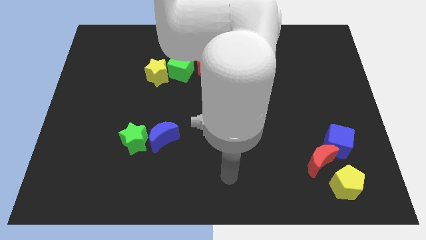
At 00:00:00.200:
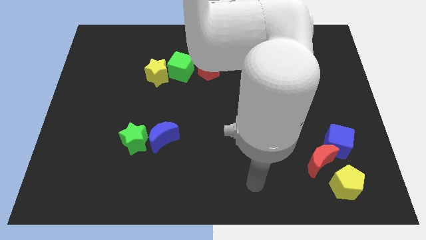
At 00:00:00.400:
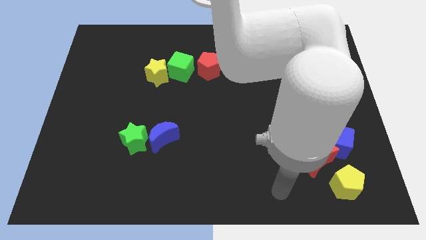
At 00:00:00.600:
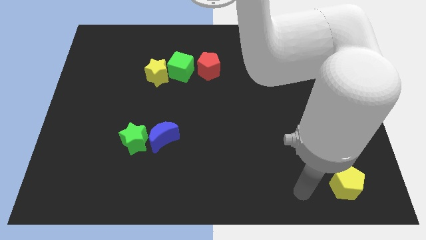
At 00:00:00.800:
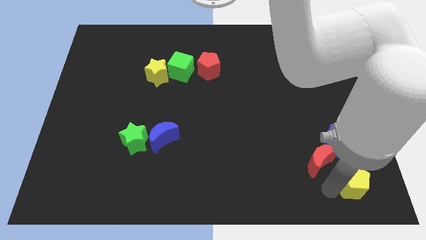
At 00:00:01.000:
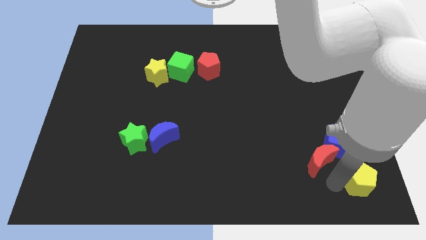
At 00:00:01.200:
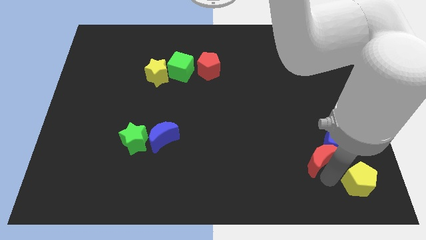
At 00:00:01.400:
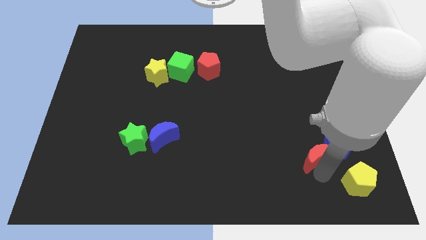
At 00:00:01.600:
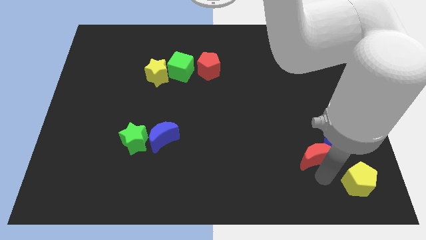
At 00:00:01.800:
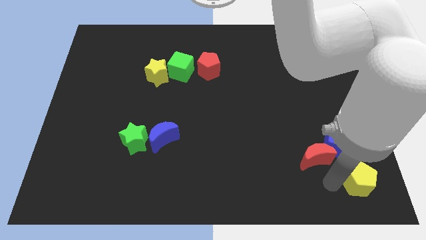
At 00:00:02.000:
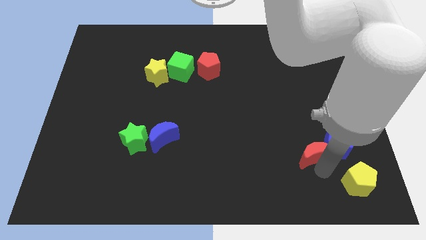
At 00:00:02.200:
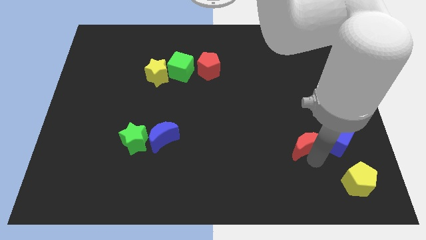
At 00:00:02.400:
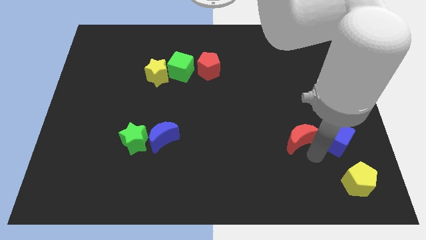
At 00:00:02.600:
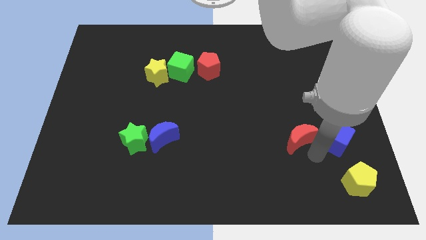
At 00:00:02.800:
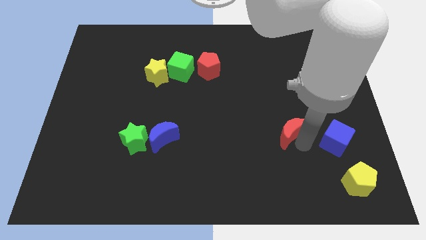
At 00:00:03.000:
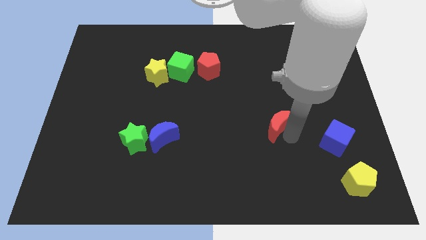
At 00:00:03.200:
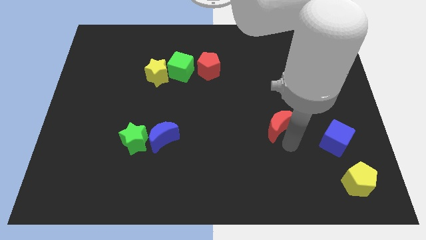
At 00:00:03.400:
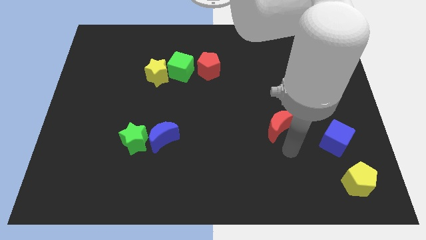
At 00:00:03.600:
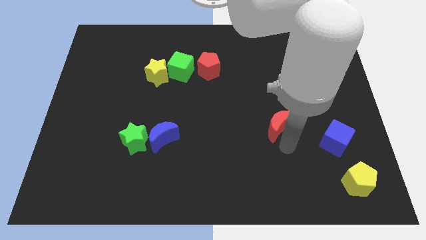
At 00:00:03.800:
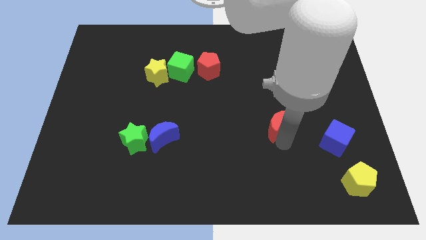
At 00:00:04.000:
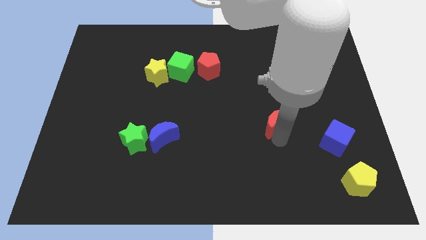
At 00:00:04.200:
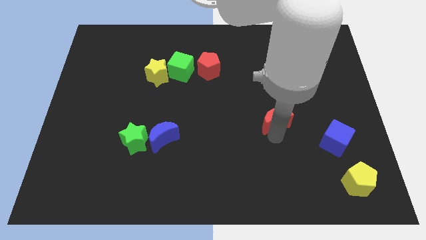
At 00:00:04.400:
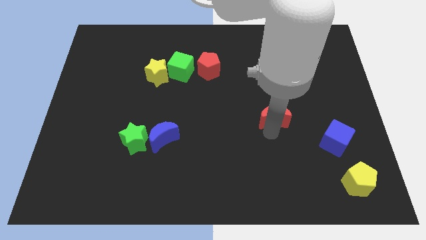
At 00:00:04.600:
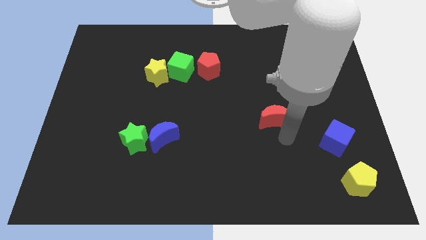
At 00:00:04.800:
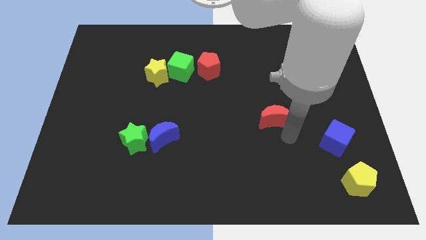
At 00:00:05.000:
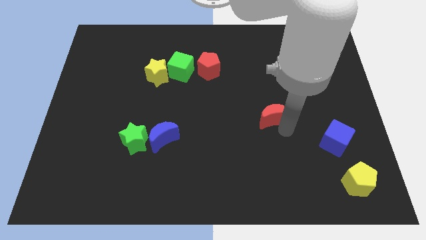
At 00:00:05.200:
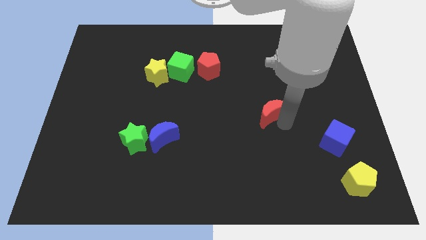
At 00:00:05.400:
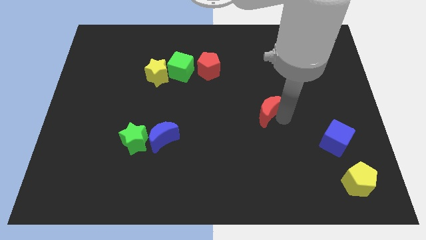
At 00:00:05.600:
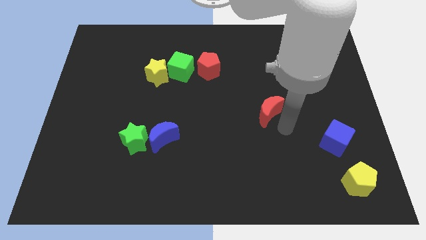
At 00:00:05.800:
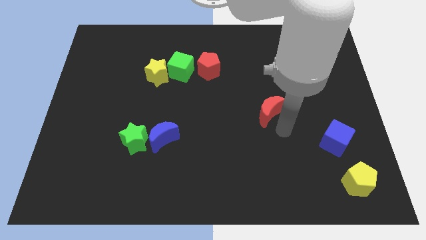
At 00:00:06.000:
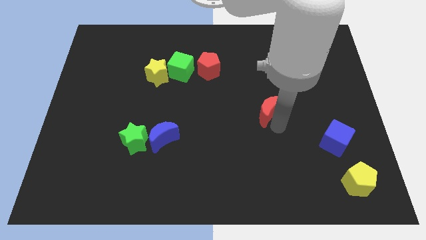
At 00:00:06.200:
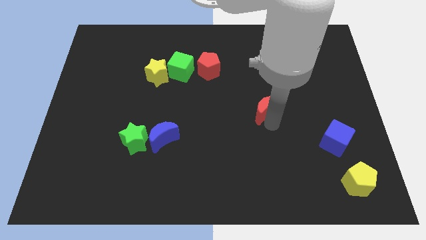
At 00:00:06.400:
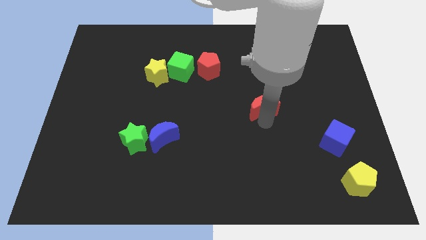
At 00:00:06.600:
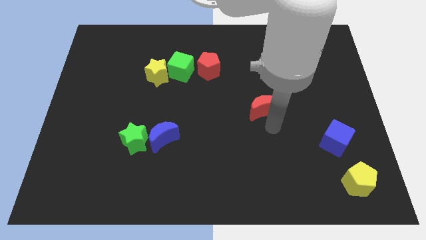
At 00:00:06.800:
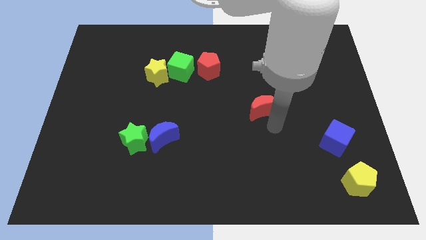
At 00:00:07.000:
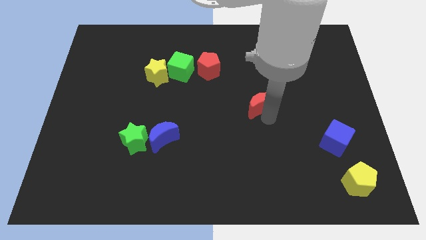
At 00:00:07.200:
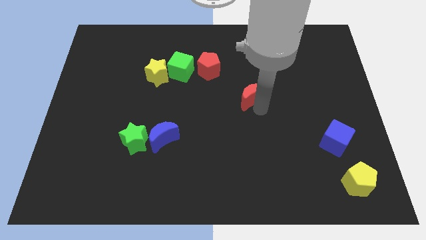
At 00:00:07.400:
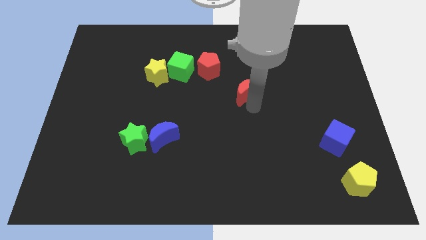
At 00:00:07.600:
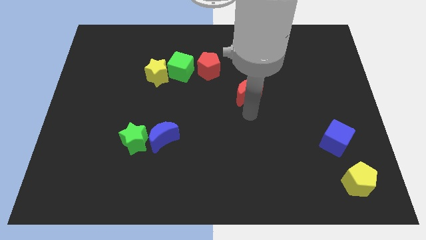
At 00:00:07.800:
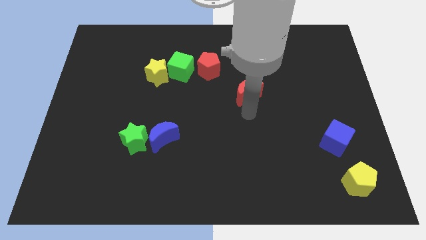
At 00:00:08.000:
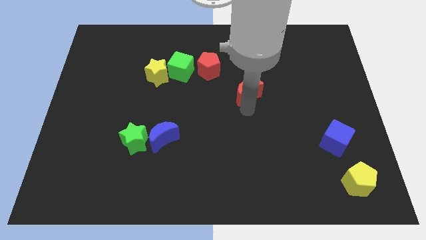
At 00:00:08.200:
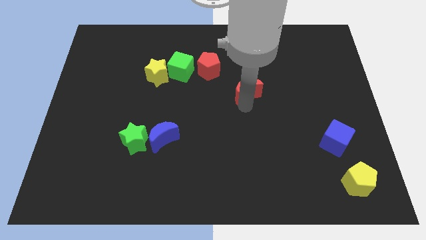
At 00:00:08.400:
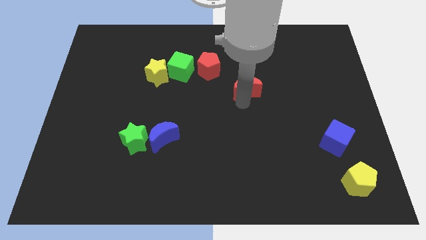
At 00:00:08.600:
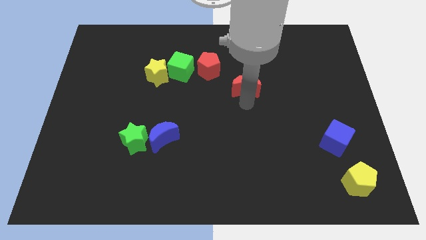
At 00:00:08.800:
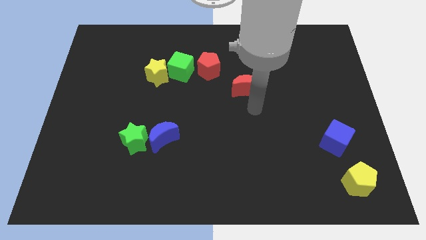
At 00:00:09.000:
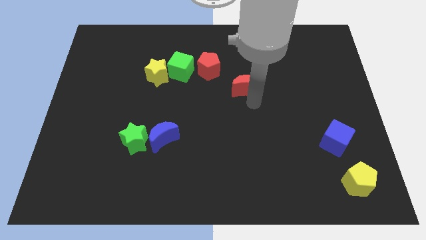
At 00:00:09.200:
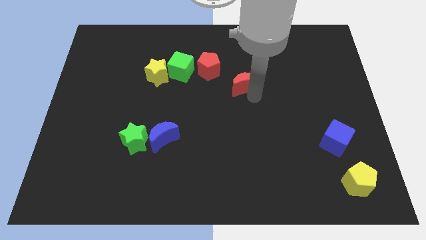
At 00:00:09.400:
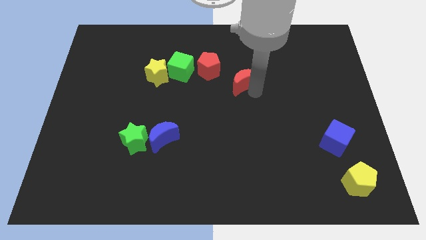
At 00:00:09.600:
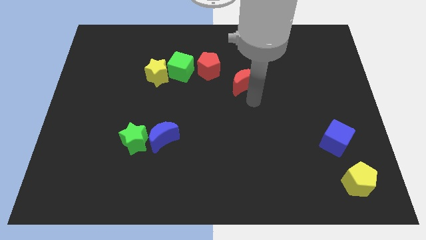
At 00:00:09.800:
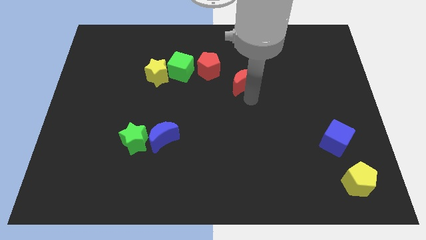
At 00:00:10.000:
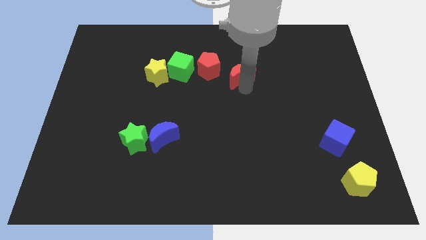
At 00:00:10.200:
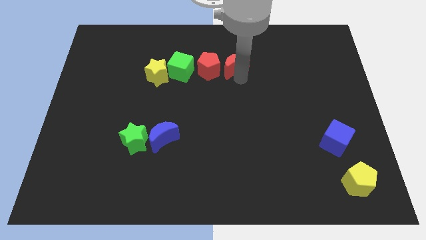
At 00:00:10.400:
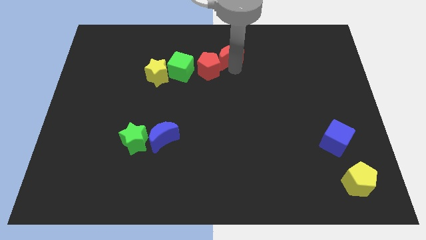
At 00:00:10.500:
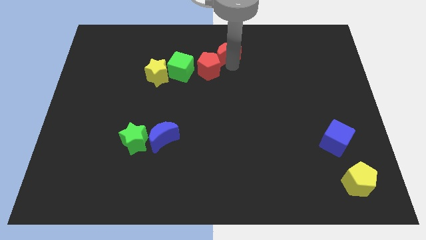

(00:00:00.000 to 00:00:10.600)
move the red moon to the towards your base

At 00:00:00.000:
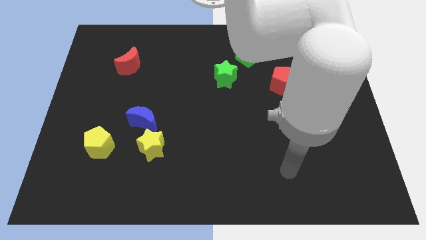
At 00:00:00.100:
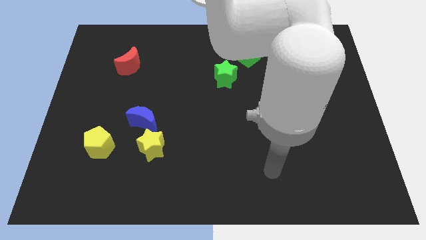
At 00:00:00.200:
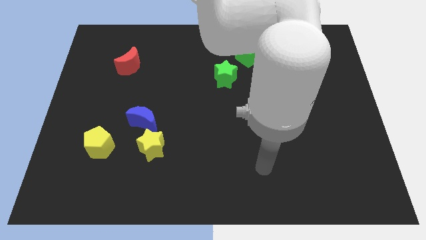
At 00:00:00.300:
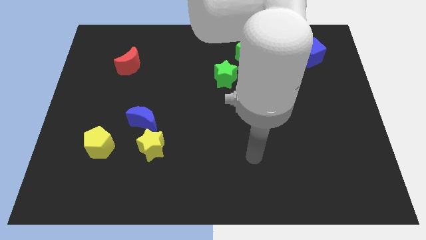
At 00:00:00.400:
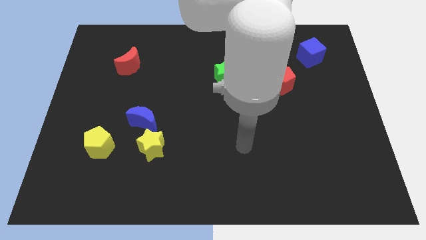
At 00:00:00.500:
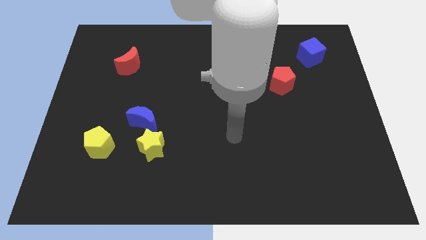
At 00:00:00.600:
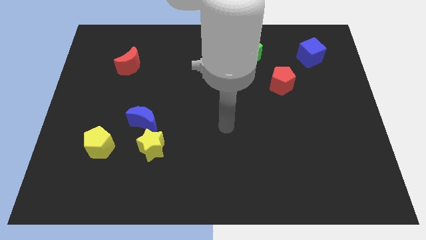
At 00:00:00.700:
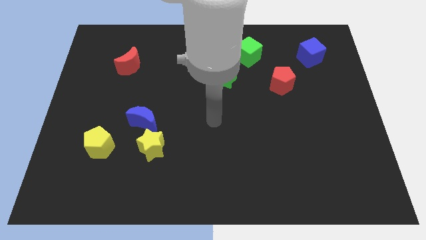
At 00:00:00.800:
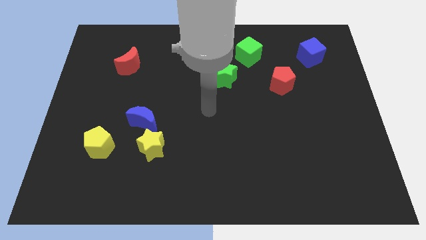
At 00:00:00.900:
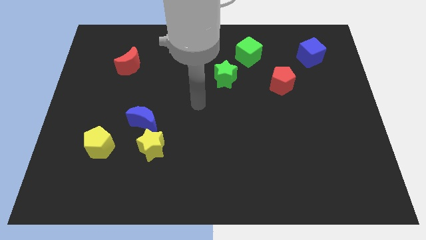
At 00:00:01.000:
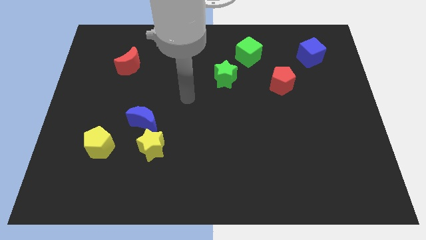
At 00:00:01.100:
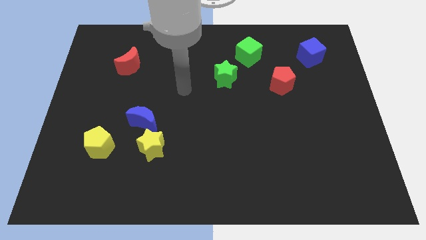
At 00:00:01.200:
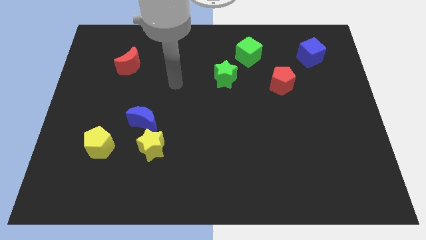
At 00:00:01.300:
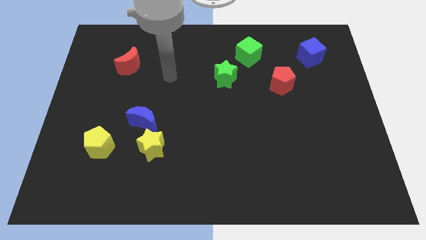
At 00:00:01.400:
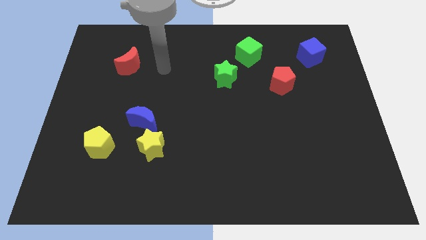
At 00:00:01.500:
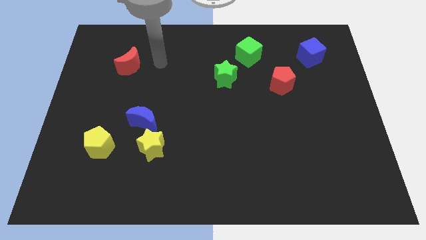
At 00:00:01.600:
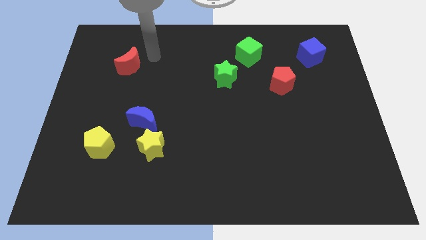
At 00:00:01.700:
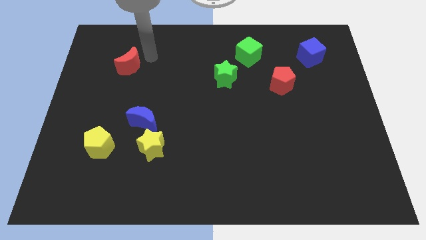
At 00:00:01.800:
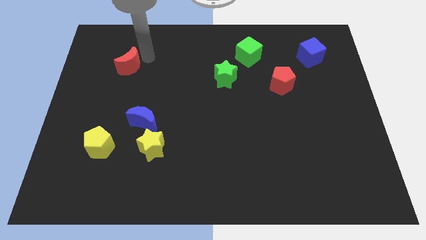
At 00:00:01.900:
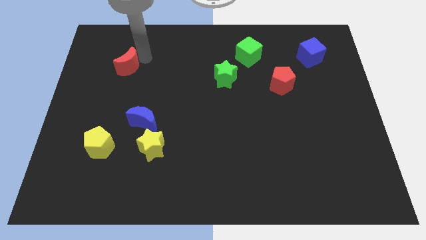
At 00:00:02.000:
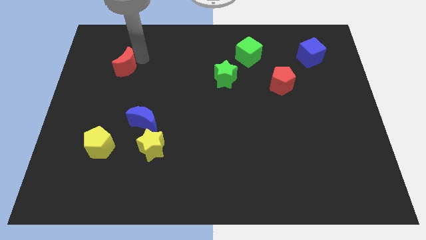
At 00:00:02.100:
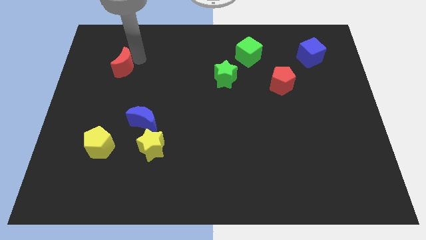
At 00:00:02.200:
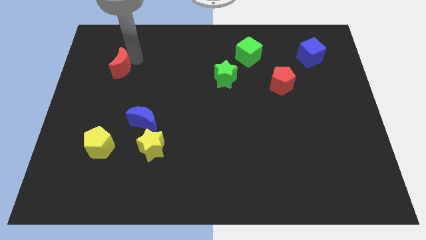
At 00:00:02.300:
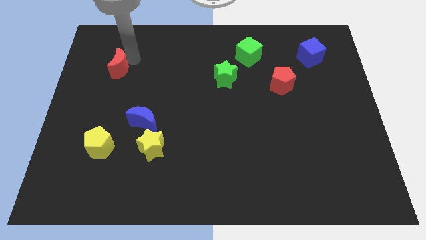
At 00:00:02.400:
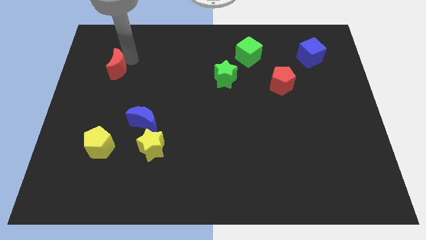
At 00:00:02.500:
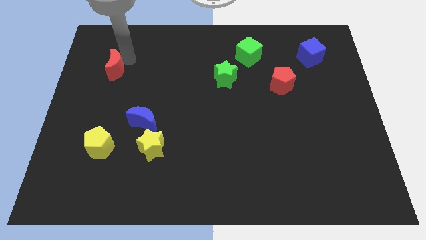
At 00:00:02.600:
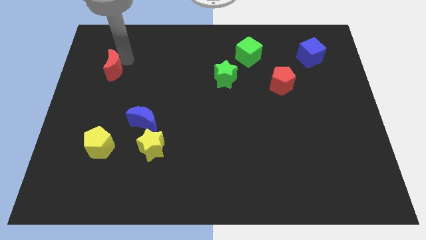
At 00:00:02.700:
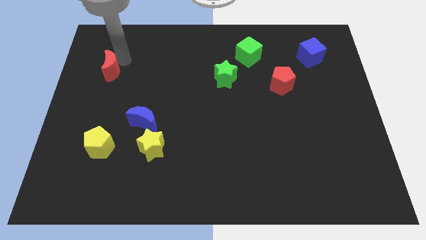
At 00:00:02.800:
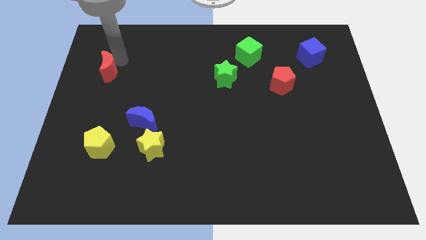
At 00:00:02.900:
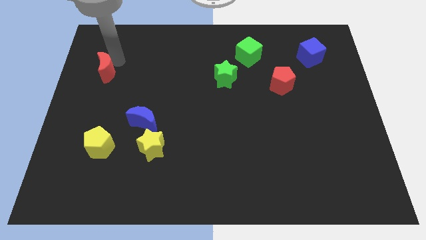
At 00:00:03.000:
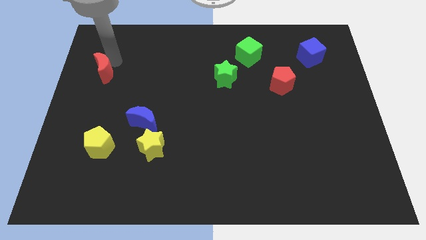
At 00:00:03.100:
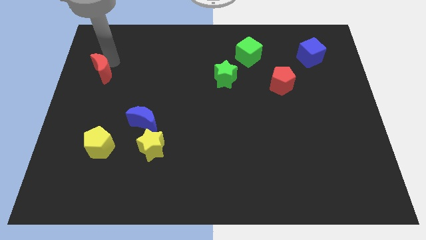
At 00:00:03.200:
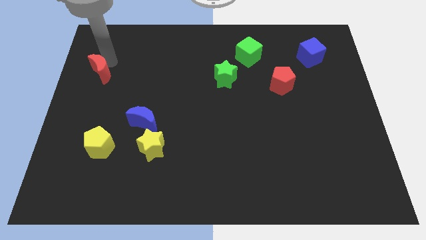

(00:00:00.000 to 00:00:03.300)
put the red moon to the left side of the board
